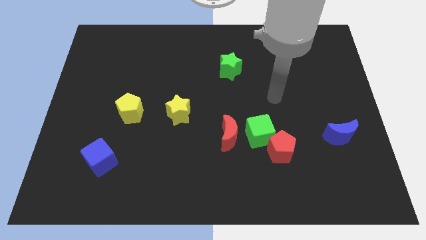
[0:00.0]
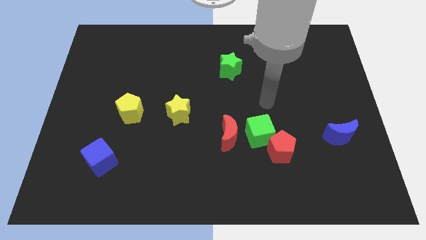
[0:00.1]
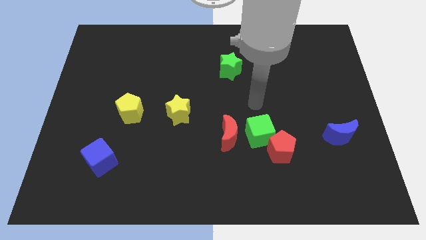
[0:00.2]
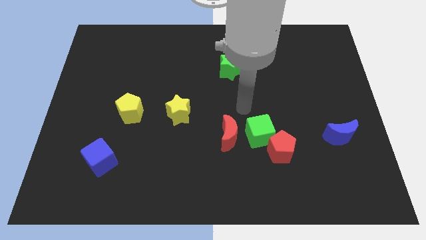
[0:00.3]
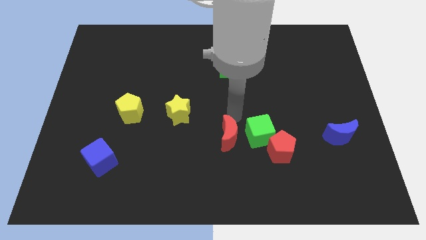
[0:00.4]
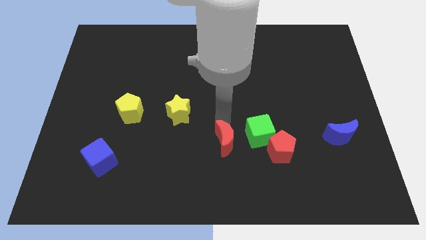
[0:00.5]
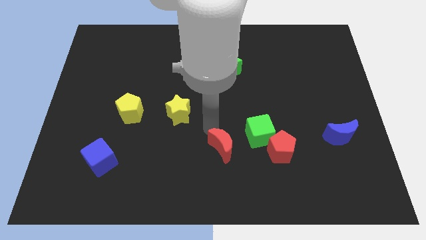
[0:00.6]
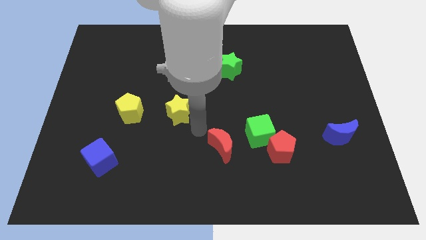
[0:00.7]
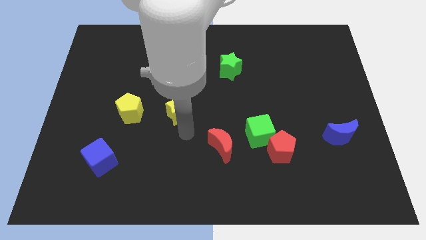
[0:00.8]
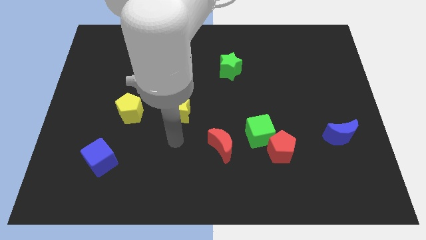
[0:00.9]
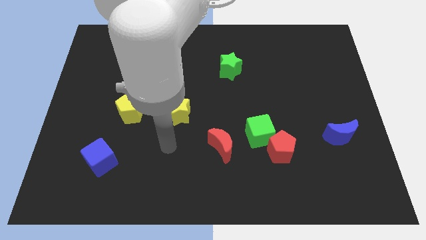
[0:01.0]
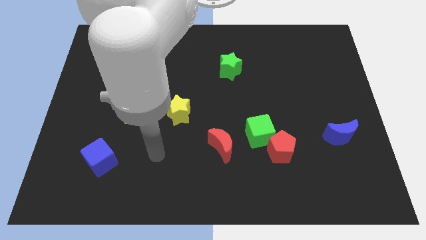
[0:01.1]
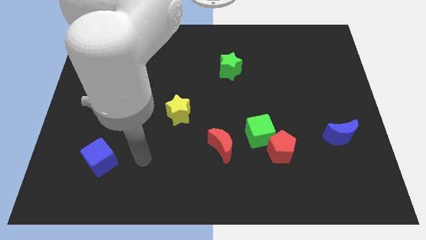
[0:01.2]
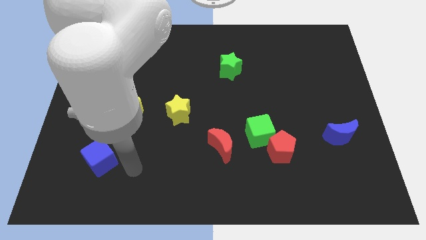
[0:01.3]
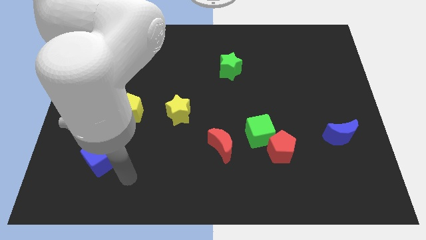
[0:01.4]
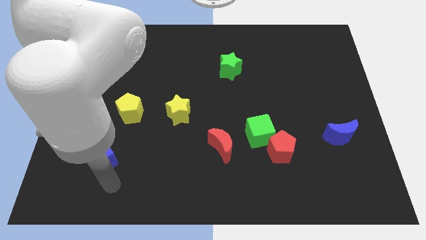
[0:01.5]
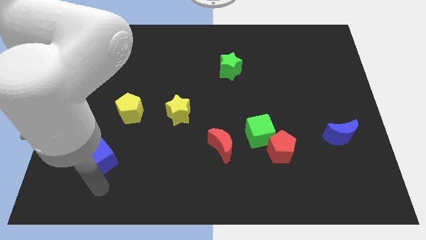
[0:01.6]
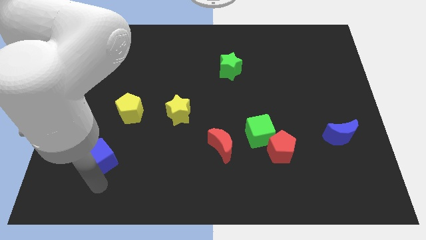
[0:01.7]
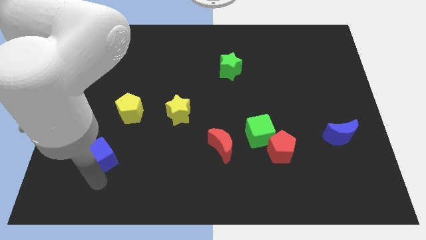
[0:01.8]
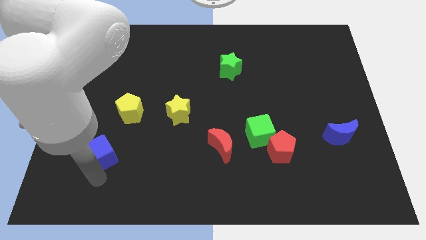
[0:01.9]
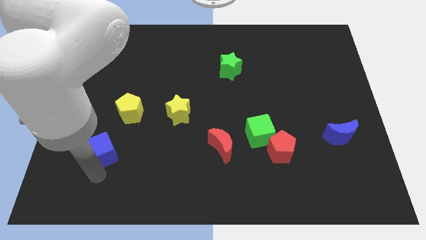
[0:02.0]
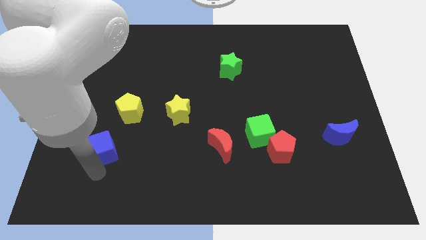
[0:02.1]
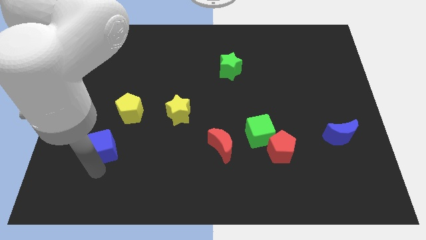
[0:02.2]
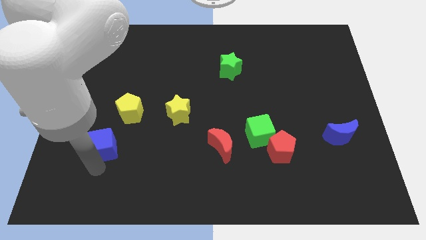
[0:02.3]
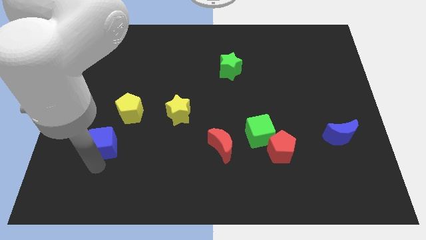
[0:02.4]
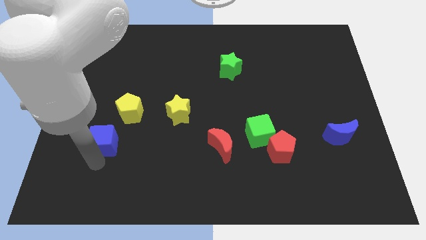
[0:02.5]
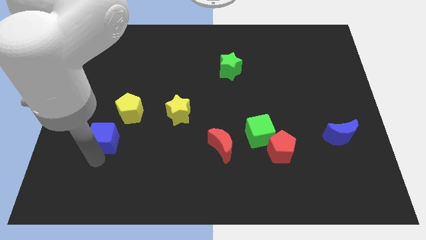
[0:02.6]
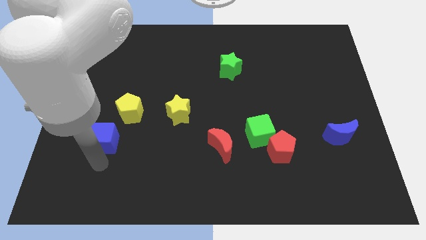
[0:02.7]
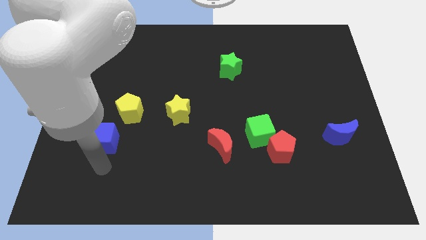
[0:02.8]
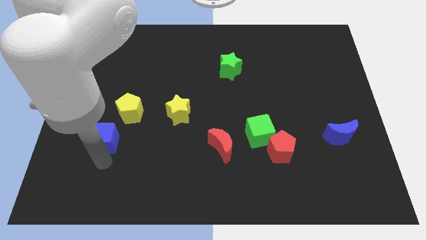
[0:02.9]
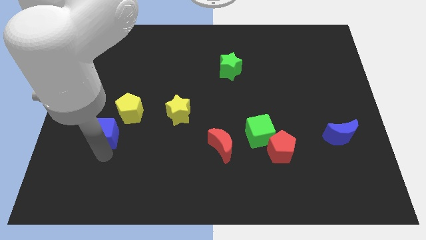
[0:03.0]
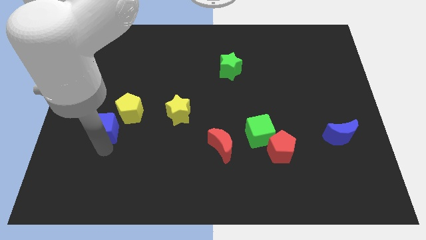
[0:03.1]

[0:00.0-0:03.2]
push the blue cube a bit upwards

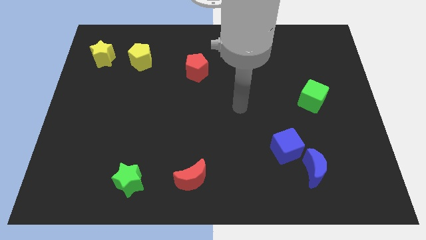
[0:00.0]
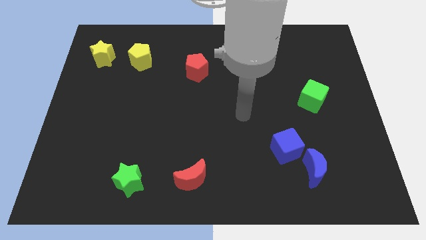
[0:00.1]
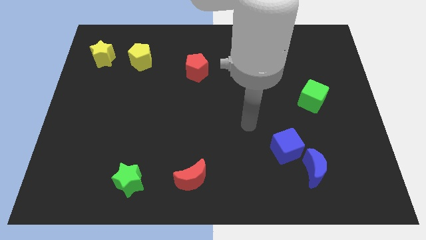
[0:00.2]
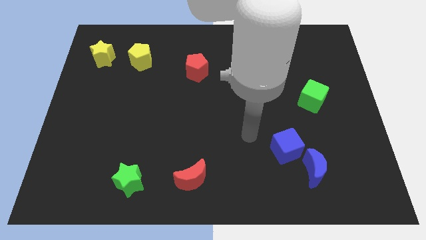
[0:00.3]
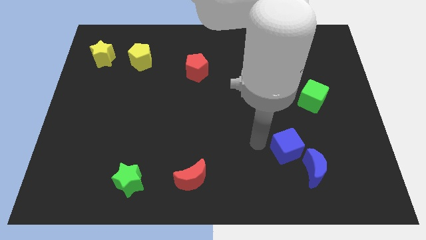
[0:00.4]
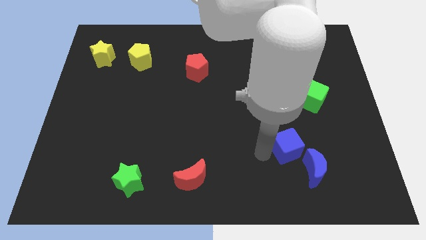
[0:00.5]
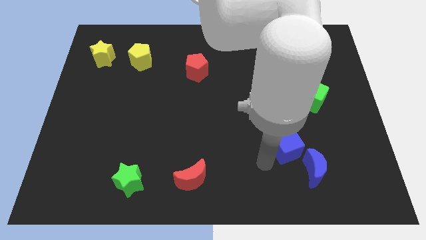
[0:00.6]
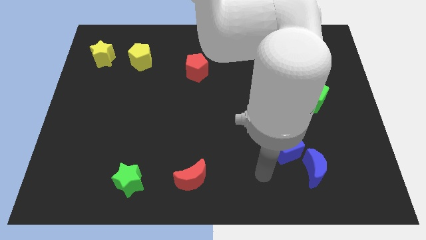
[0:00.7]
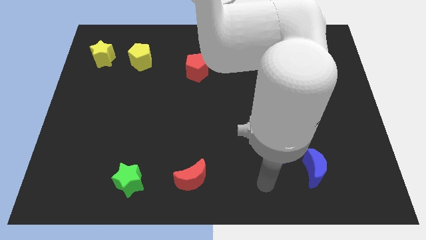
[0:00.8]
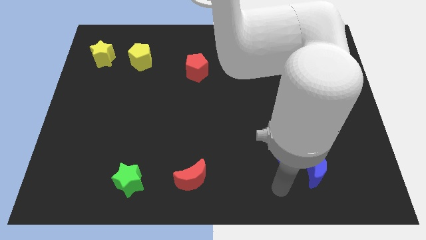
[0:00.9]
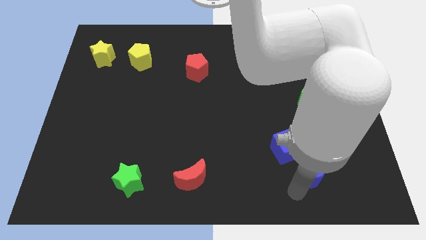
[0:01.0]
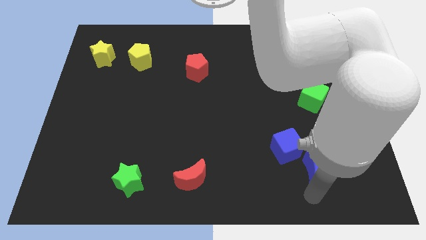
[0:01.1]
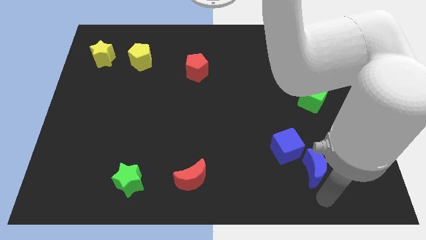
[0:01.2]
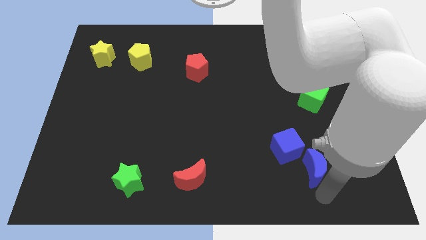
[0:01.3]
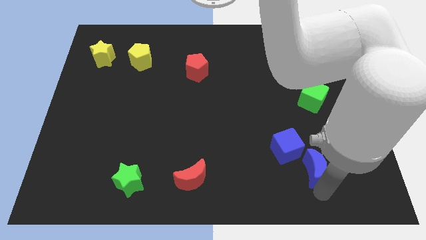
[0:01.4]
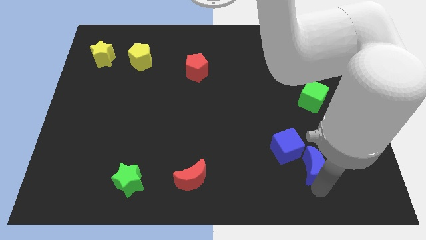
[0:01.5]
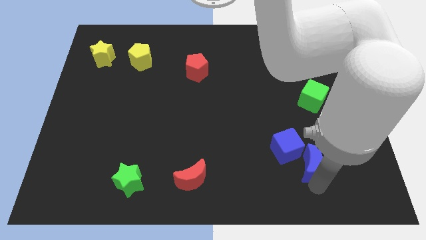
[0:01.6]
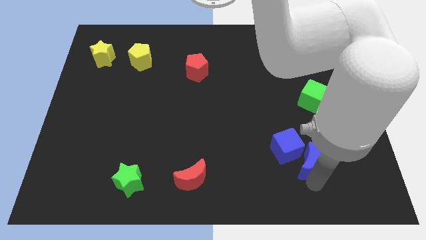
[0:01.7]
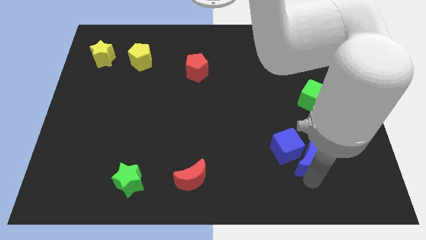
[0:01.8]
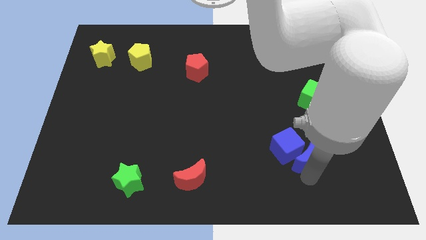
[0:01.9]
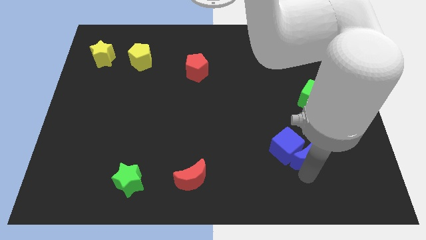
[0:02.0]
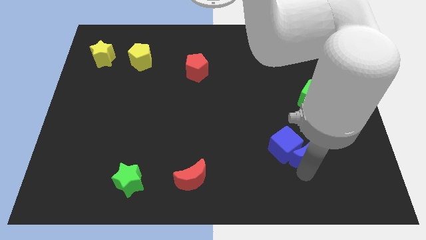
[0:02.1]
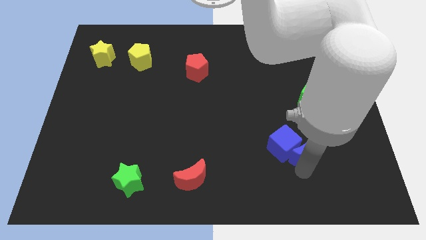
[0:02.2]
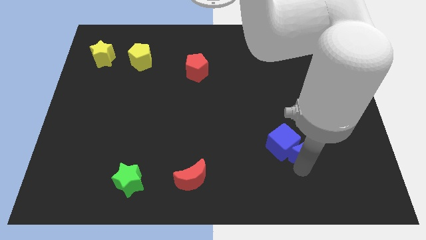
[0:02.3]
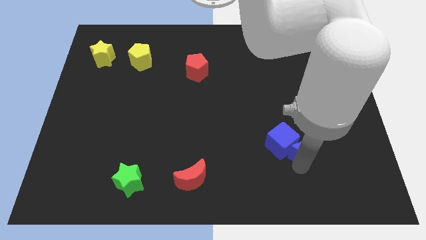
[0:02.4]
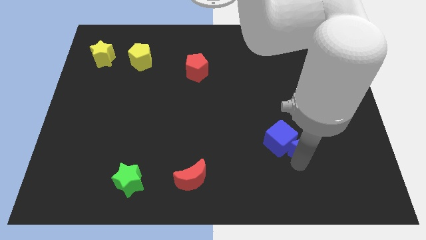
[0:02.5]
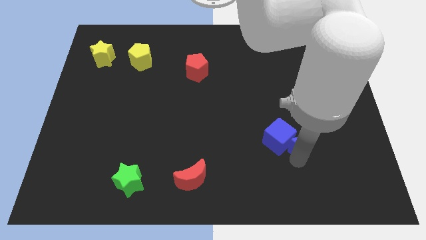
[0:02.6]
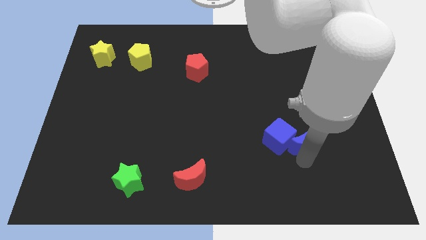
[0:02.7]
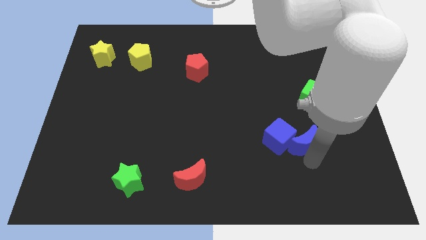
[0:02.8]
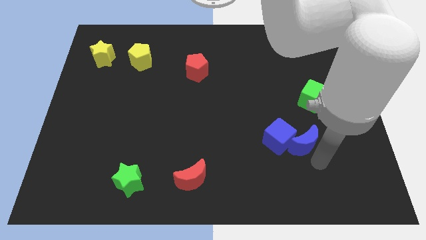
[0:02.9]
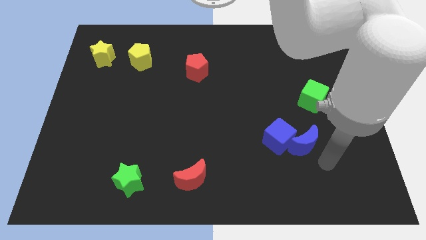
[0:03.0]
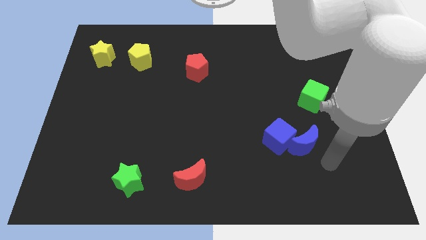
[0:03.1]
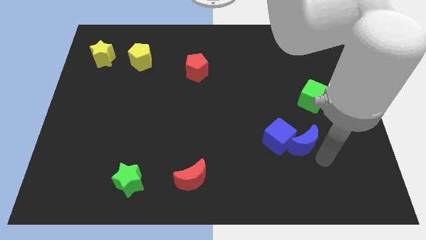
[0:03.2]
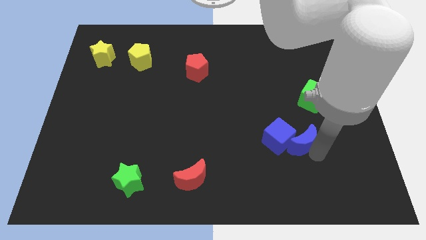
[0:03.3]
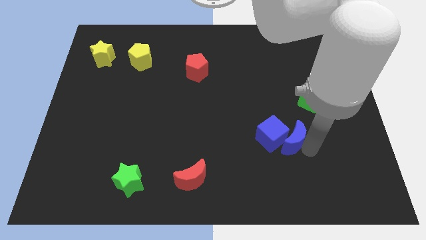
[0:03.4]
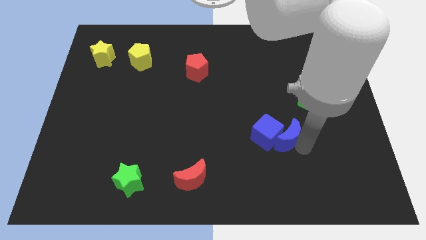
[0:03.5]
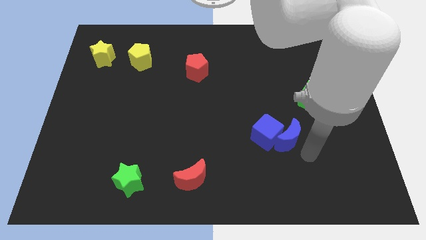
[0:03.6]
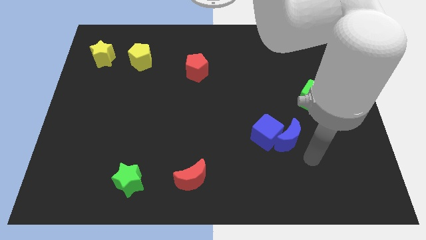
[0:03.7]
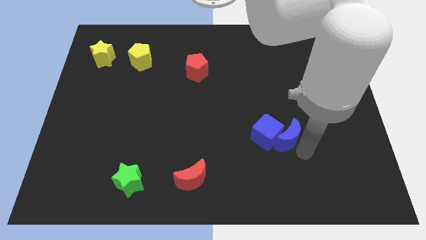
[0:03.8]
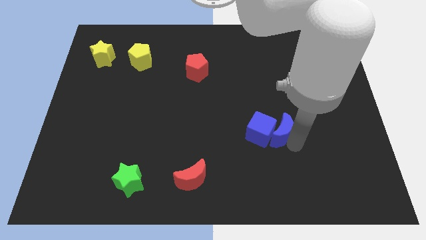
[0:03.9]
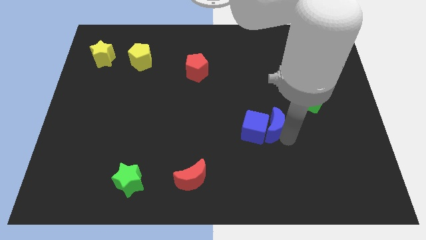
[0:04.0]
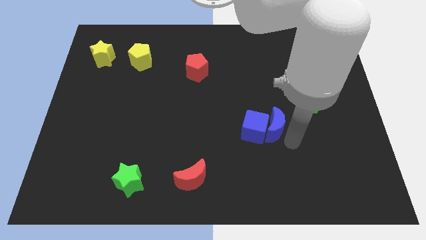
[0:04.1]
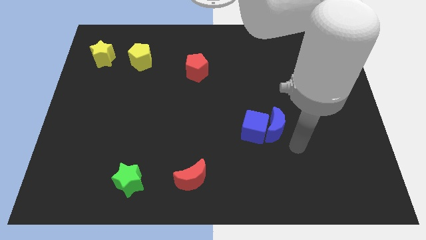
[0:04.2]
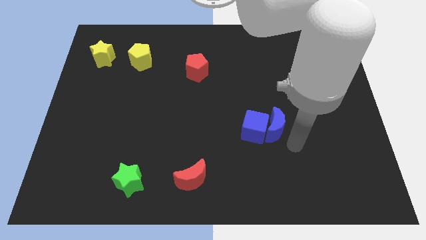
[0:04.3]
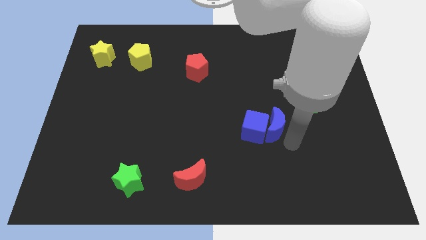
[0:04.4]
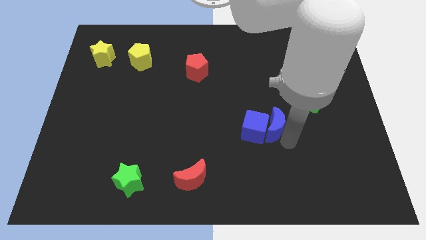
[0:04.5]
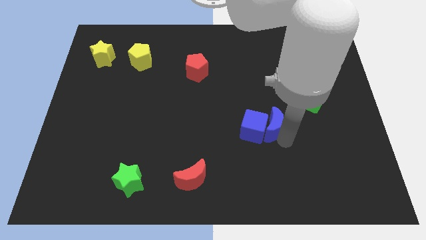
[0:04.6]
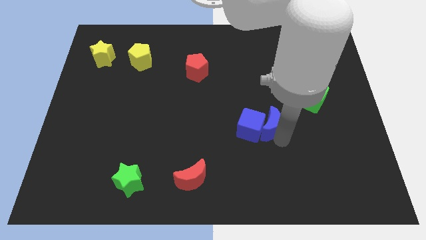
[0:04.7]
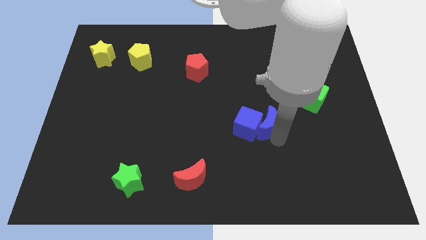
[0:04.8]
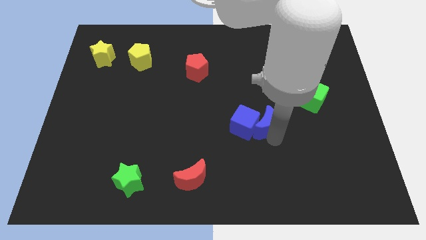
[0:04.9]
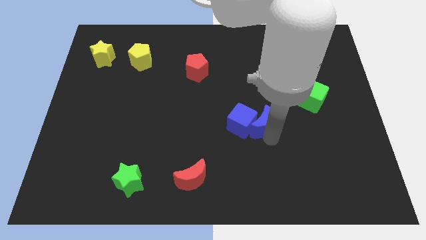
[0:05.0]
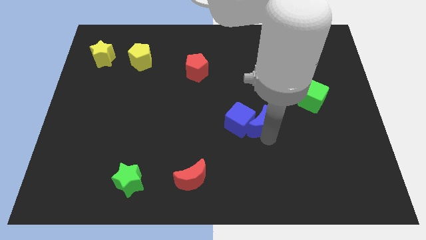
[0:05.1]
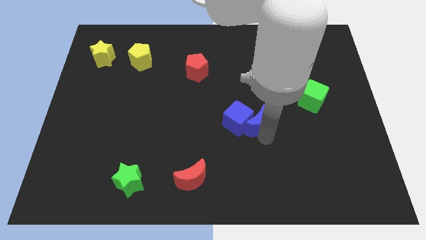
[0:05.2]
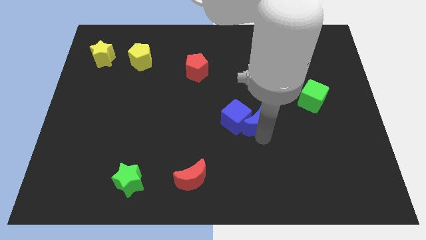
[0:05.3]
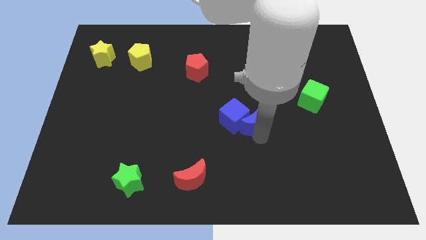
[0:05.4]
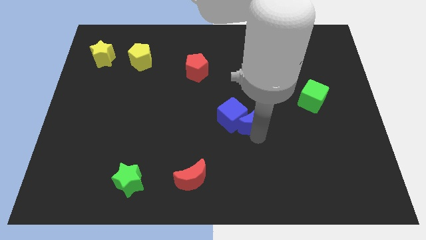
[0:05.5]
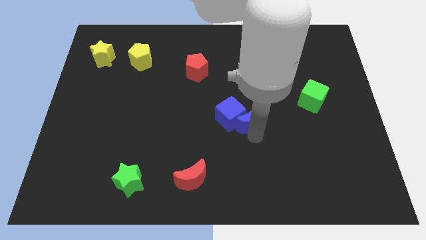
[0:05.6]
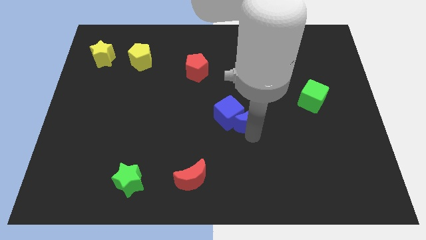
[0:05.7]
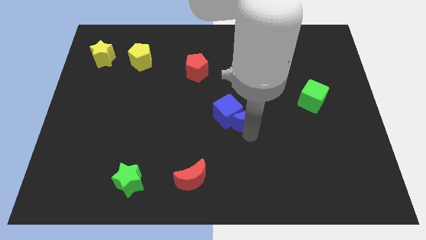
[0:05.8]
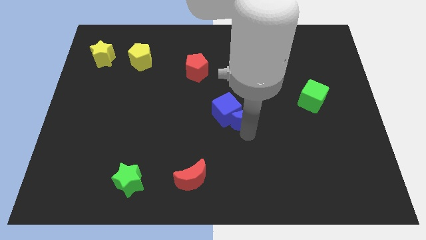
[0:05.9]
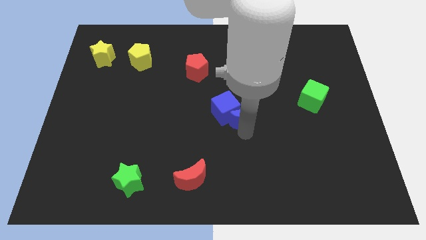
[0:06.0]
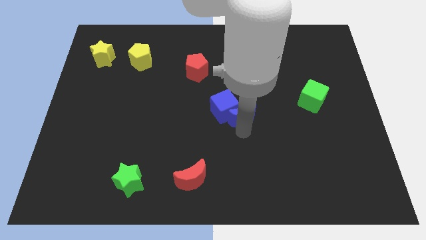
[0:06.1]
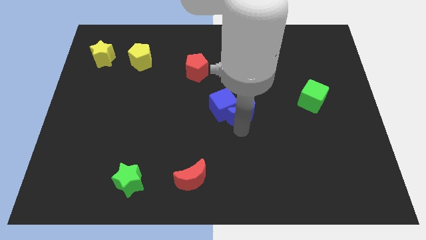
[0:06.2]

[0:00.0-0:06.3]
slide the blue moon upwards and left diagonally
